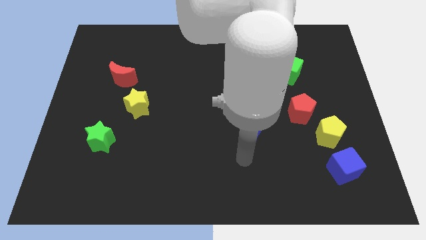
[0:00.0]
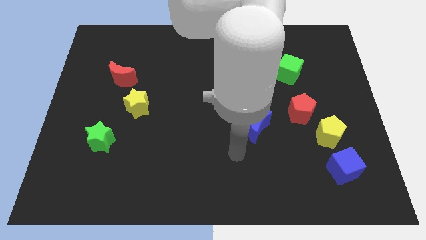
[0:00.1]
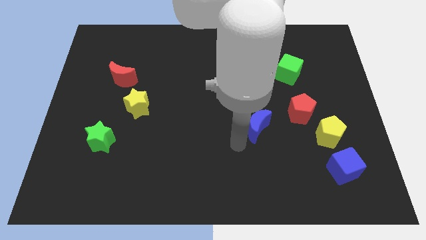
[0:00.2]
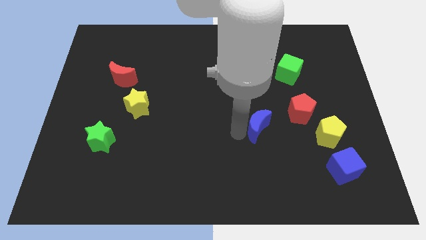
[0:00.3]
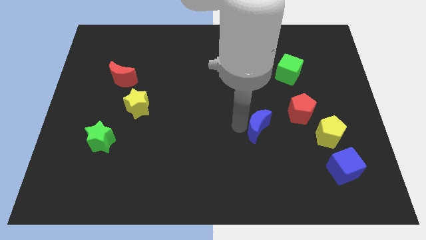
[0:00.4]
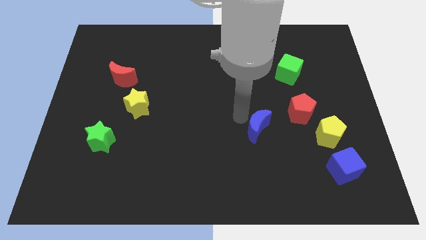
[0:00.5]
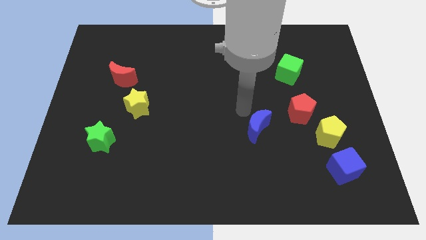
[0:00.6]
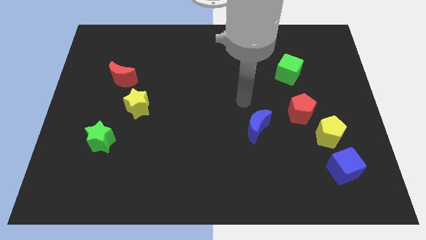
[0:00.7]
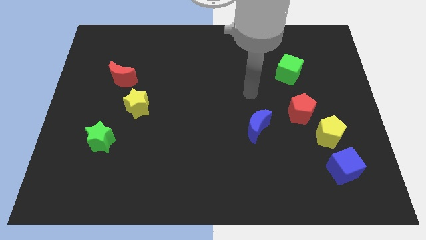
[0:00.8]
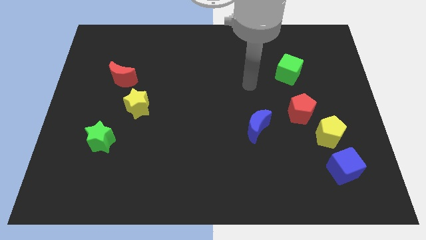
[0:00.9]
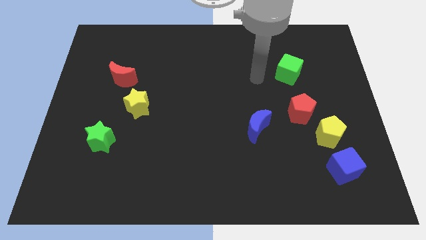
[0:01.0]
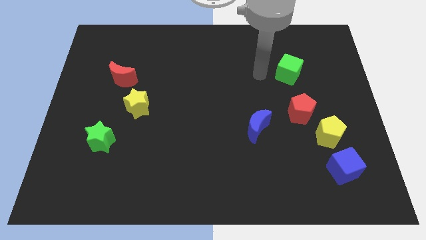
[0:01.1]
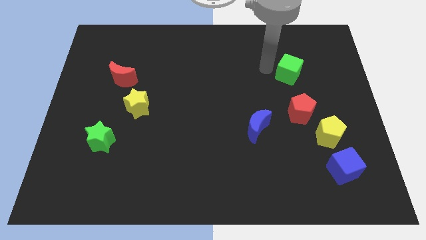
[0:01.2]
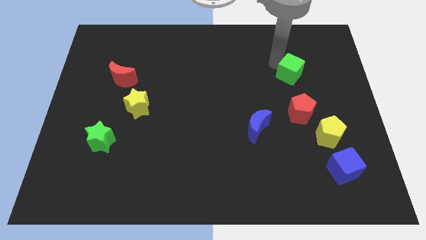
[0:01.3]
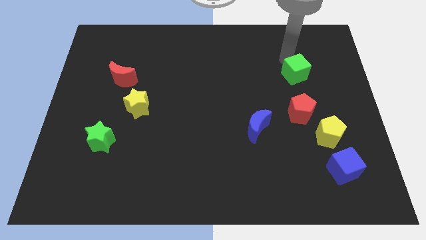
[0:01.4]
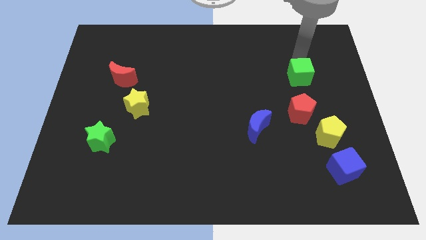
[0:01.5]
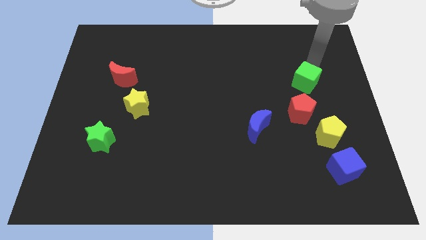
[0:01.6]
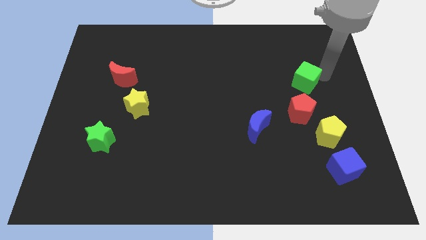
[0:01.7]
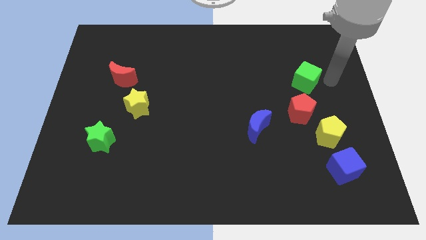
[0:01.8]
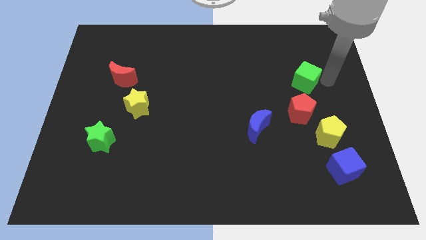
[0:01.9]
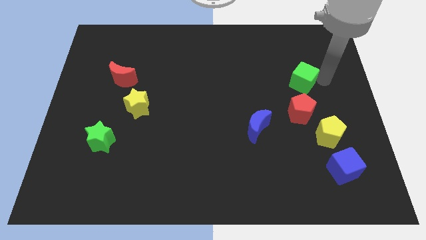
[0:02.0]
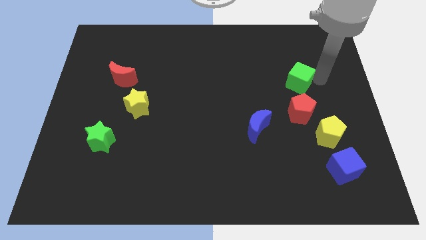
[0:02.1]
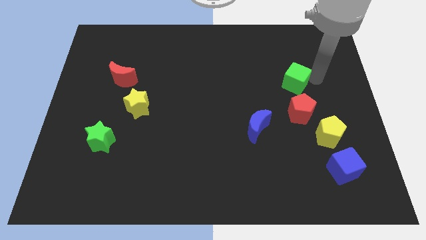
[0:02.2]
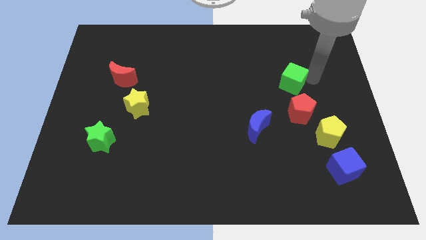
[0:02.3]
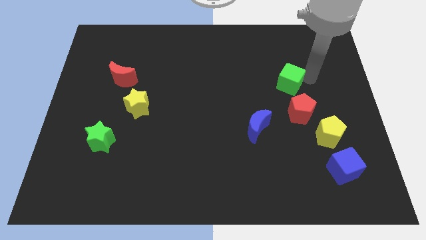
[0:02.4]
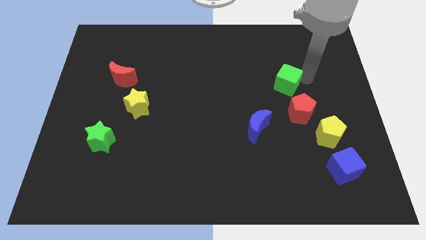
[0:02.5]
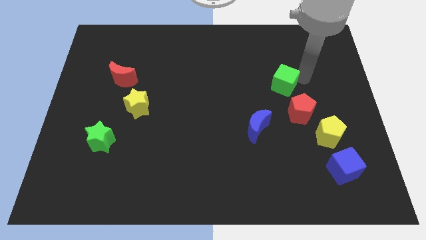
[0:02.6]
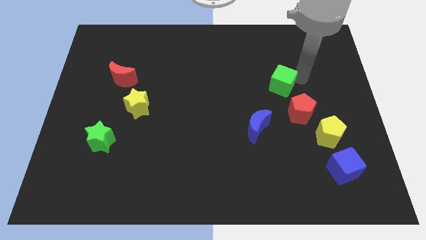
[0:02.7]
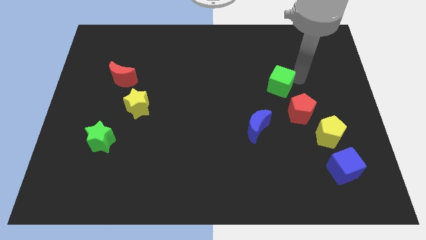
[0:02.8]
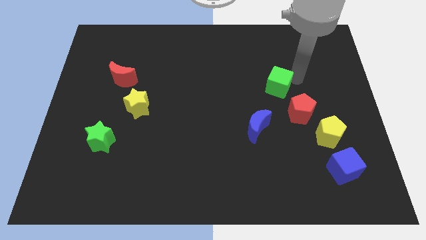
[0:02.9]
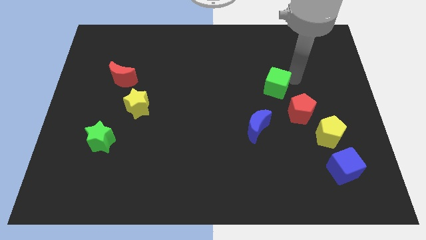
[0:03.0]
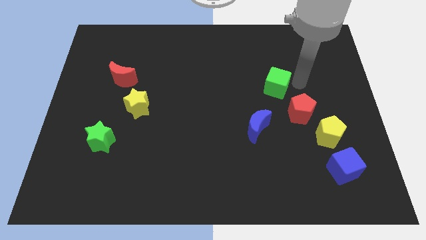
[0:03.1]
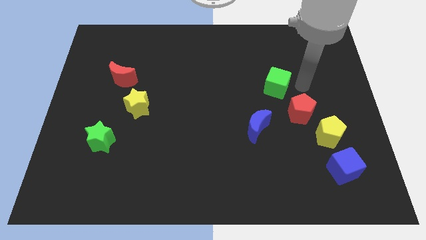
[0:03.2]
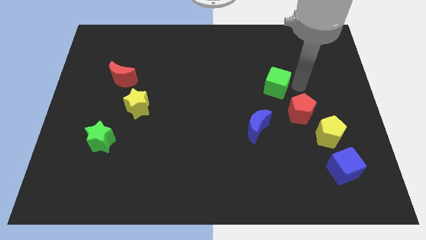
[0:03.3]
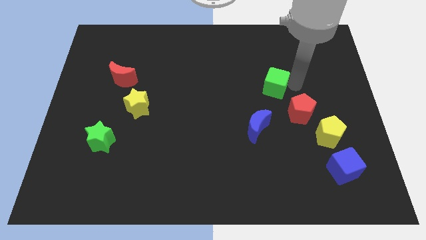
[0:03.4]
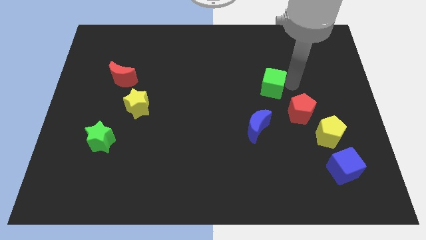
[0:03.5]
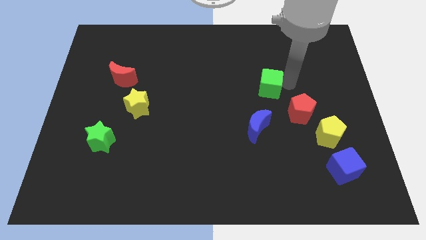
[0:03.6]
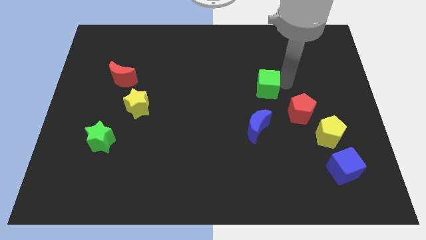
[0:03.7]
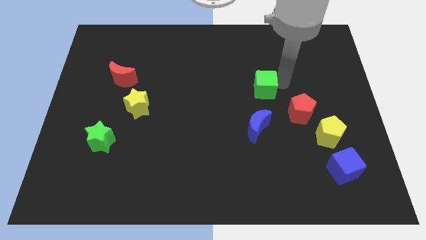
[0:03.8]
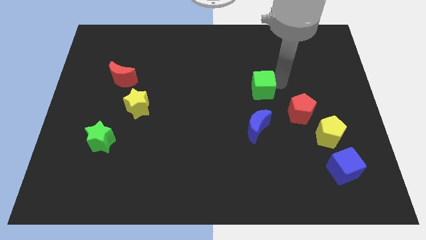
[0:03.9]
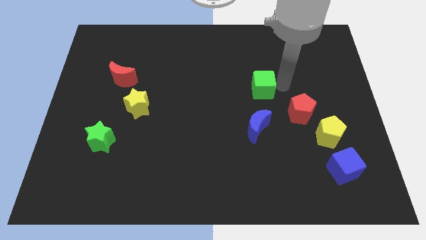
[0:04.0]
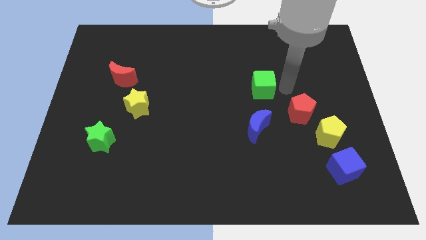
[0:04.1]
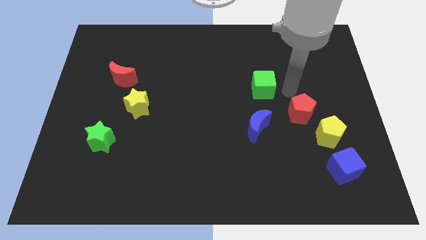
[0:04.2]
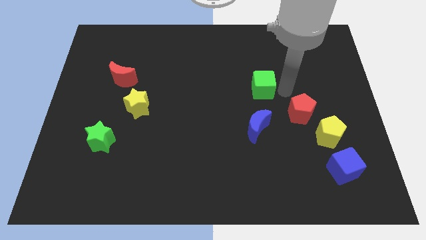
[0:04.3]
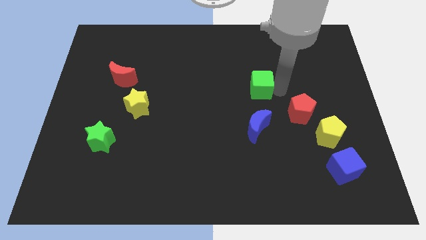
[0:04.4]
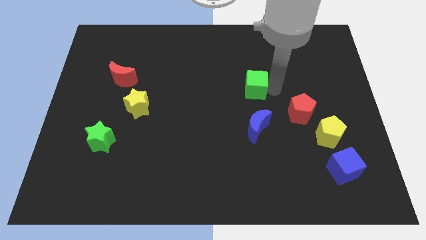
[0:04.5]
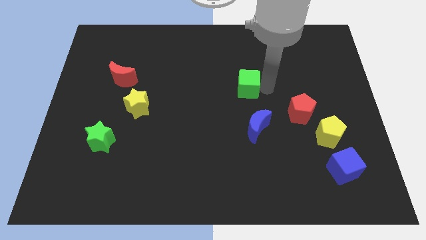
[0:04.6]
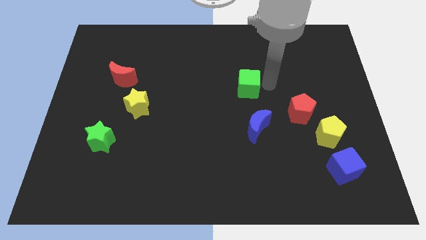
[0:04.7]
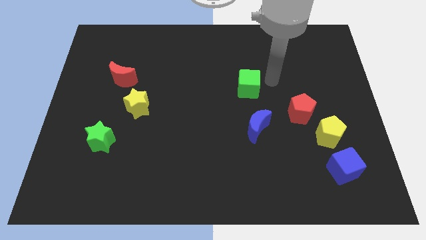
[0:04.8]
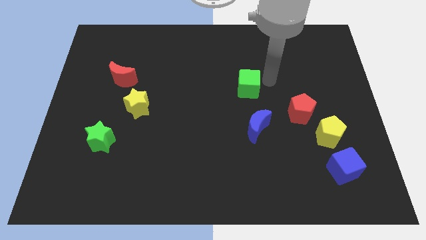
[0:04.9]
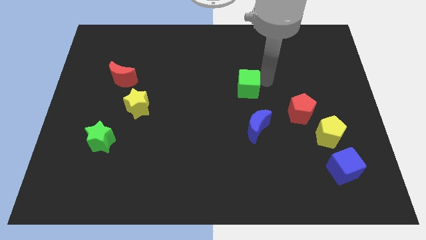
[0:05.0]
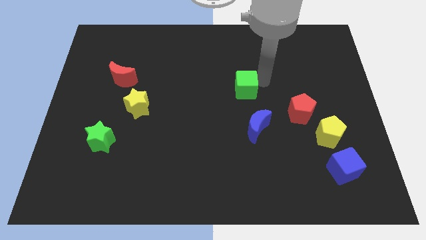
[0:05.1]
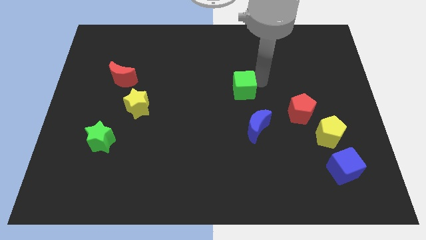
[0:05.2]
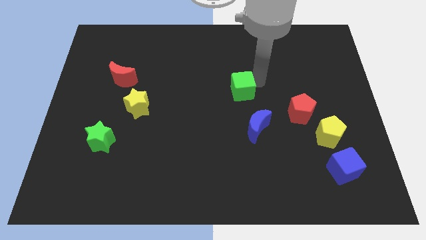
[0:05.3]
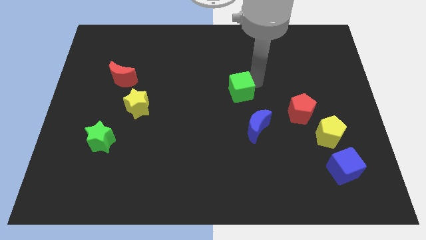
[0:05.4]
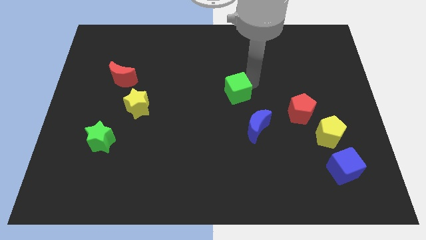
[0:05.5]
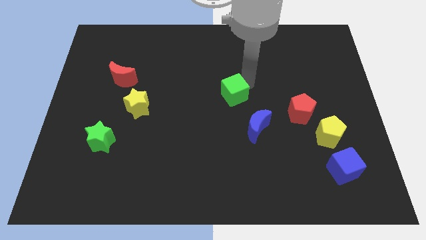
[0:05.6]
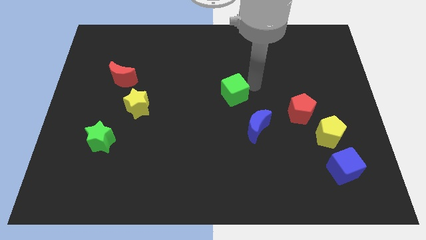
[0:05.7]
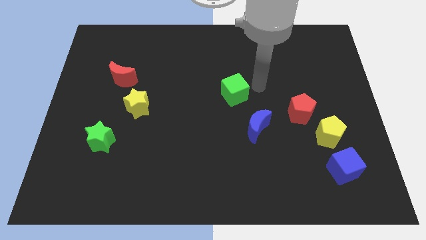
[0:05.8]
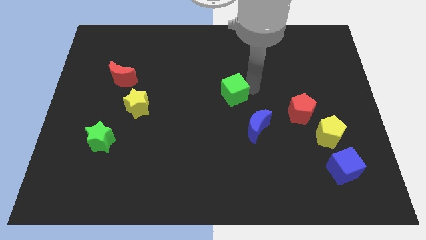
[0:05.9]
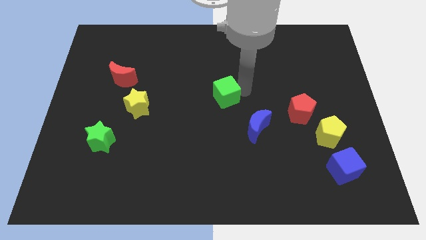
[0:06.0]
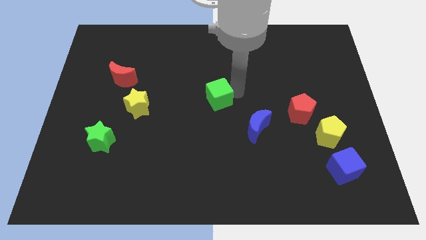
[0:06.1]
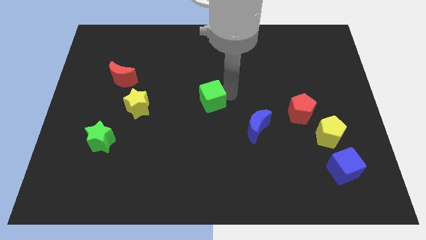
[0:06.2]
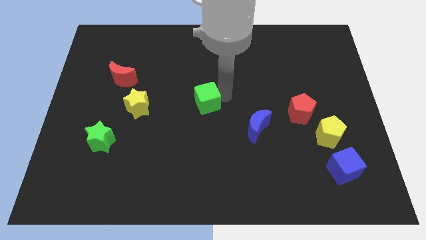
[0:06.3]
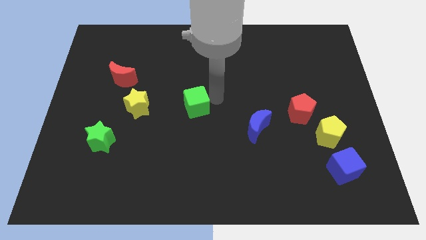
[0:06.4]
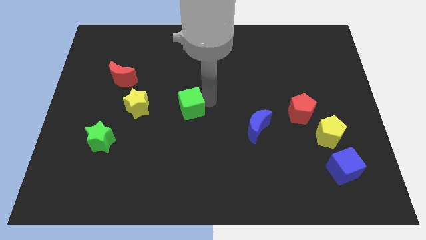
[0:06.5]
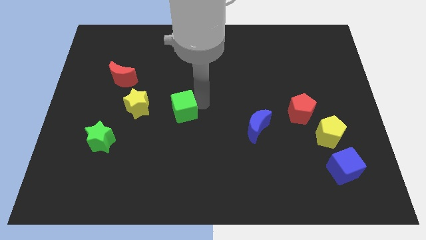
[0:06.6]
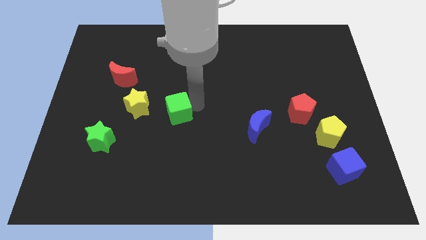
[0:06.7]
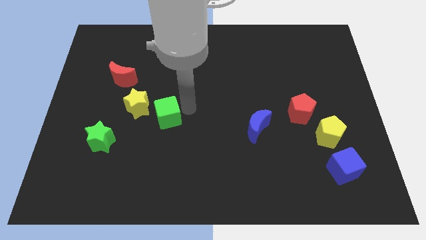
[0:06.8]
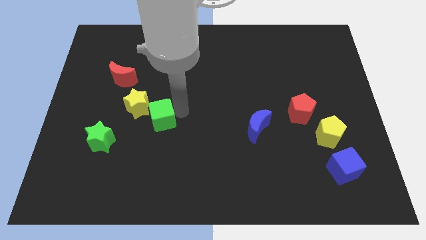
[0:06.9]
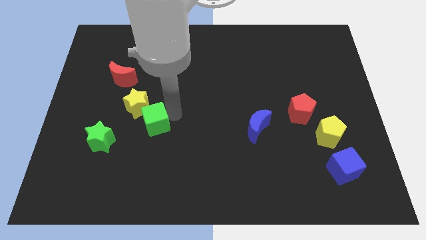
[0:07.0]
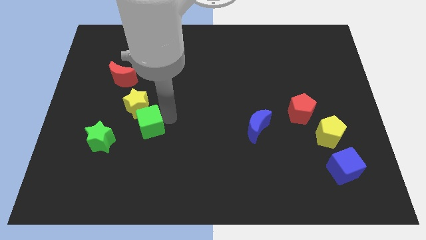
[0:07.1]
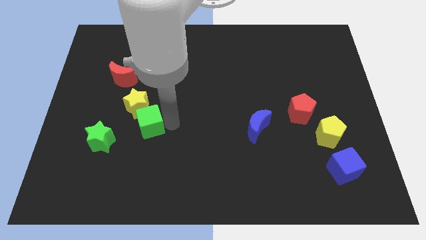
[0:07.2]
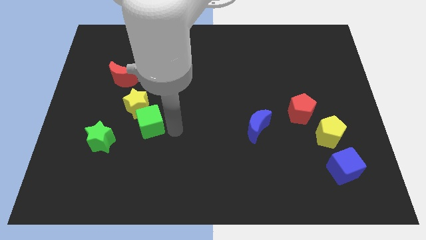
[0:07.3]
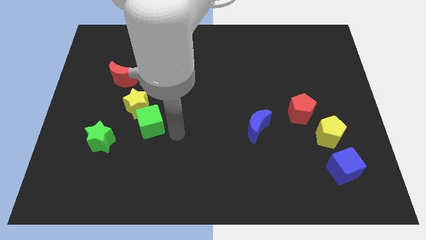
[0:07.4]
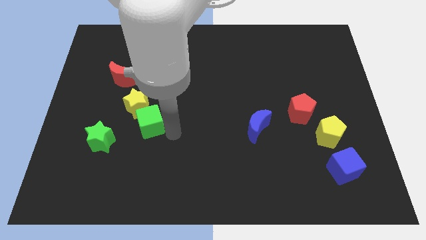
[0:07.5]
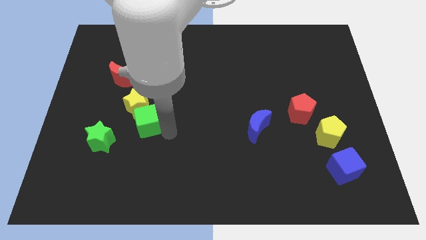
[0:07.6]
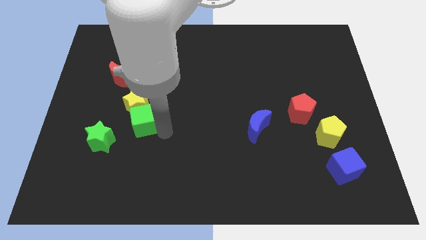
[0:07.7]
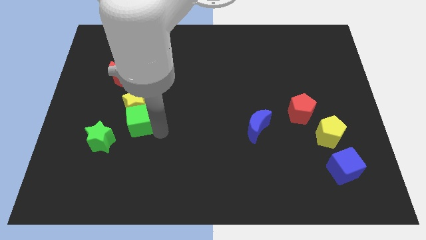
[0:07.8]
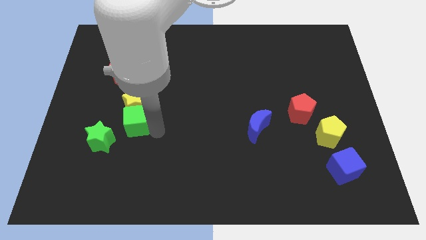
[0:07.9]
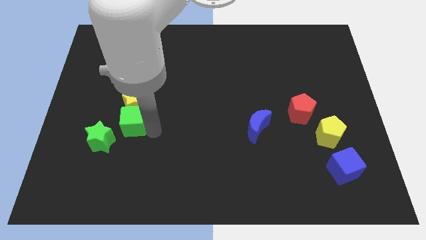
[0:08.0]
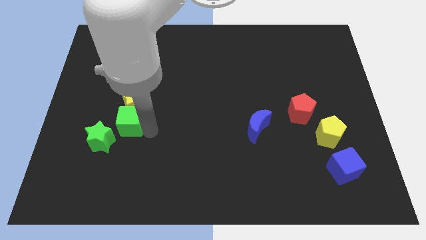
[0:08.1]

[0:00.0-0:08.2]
put the green cube to the bottom side of the red moon
